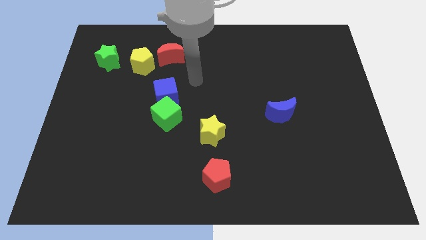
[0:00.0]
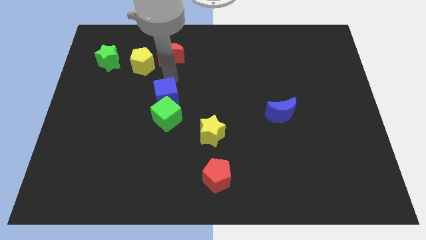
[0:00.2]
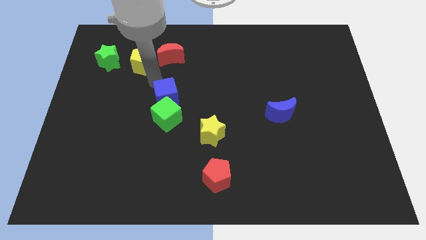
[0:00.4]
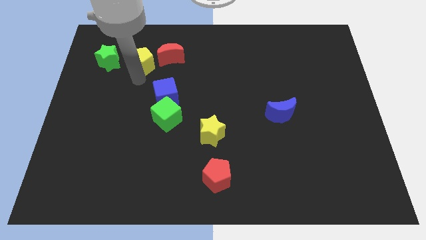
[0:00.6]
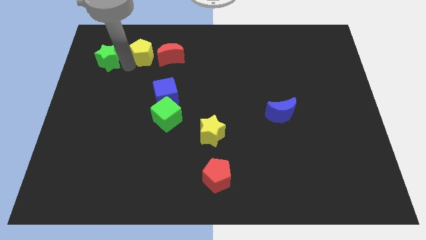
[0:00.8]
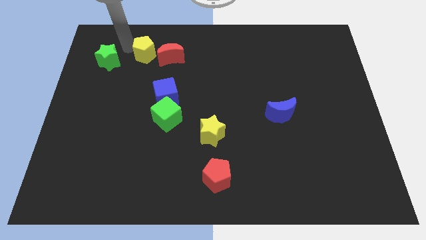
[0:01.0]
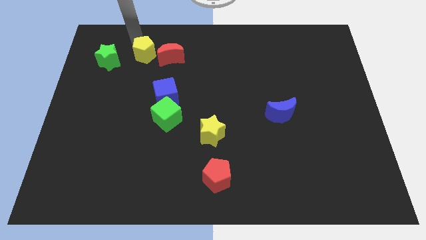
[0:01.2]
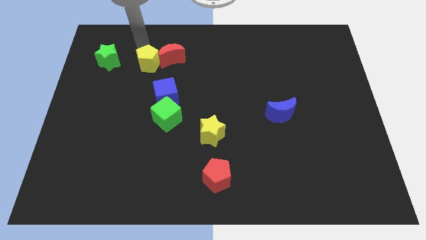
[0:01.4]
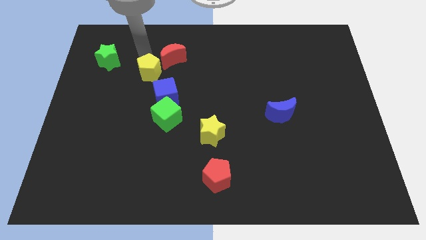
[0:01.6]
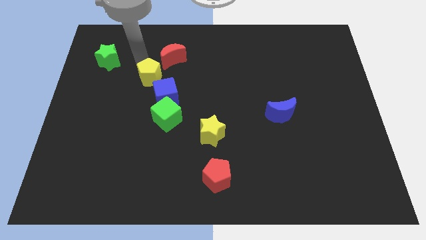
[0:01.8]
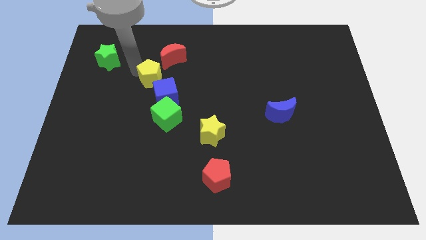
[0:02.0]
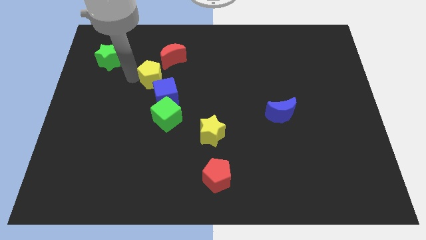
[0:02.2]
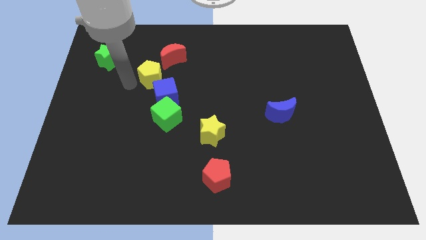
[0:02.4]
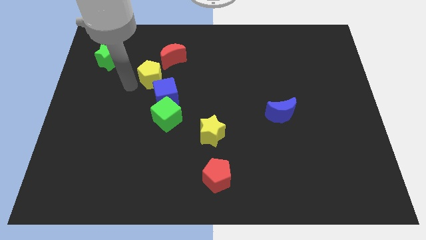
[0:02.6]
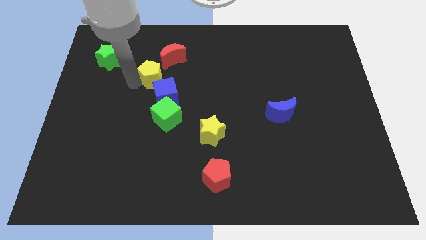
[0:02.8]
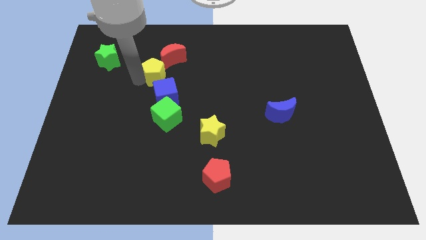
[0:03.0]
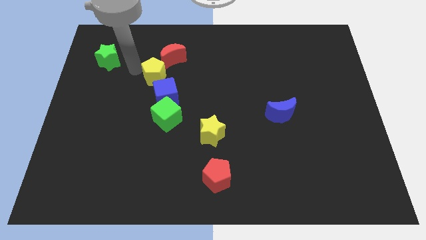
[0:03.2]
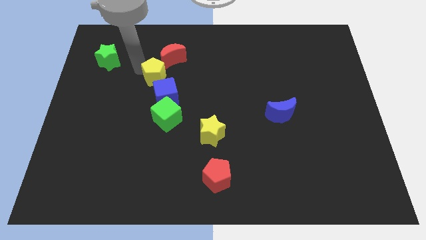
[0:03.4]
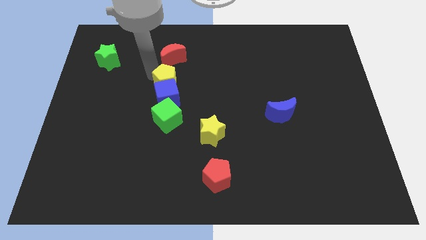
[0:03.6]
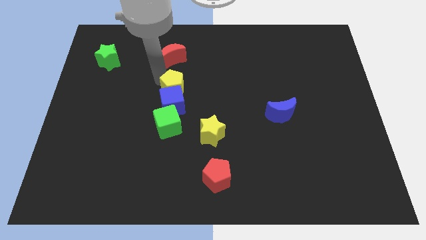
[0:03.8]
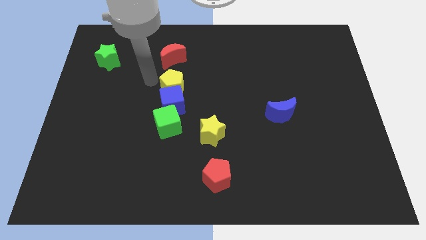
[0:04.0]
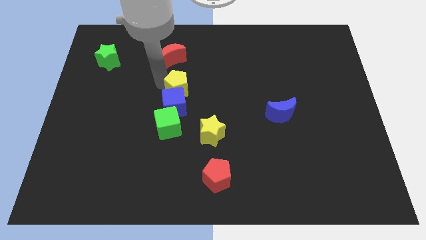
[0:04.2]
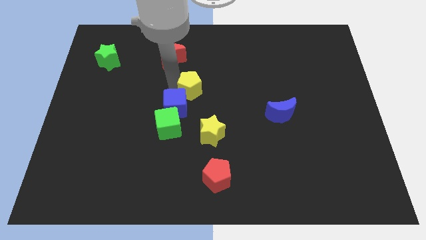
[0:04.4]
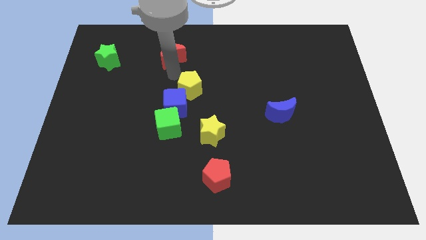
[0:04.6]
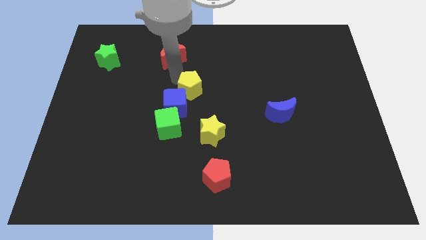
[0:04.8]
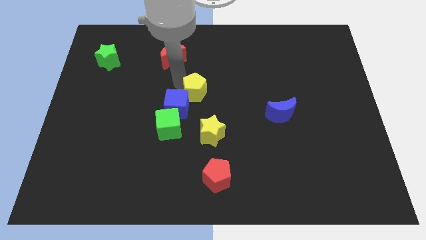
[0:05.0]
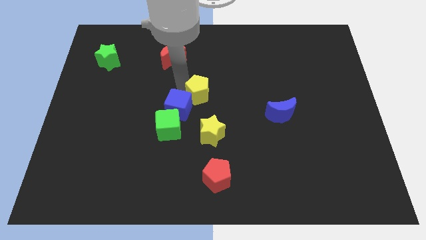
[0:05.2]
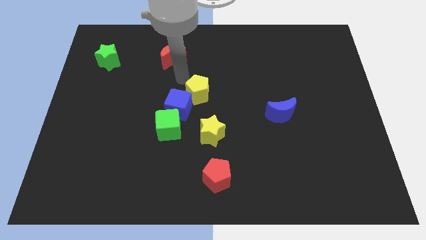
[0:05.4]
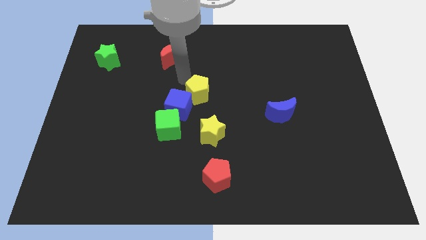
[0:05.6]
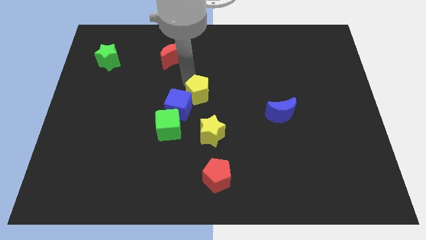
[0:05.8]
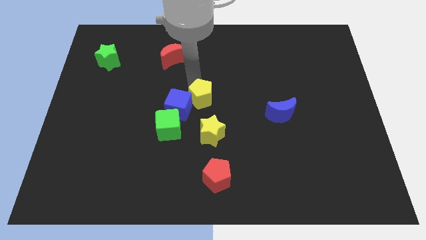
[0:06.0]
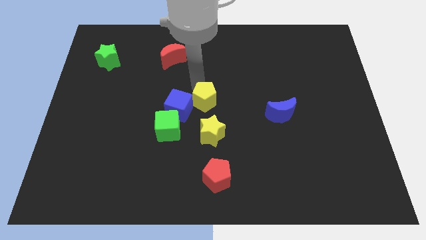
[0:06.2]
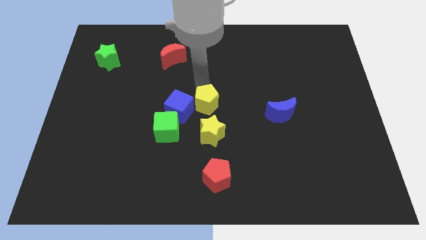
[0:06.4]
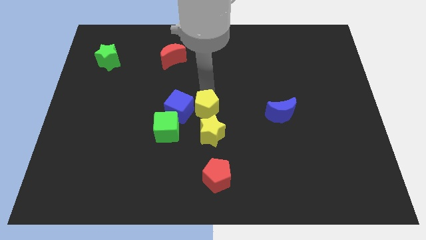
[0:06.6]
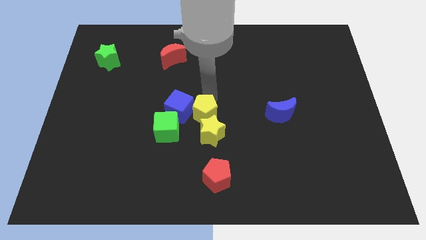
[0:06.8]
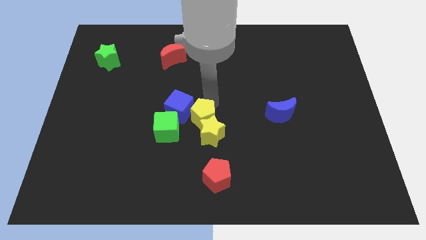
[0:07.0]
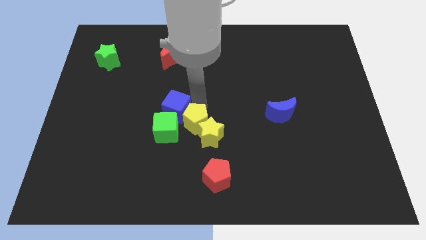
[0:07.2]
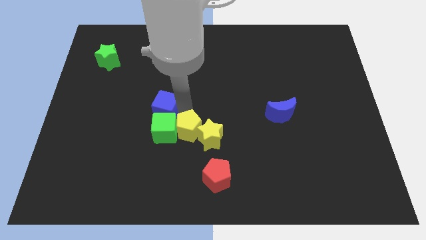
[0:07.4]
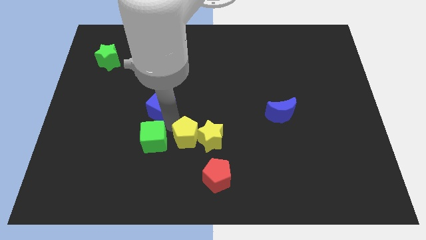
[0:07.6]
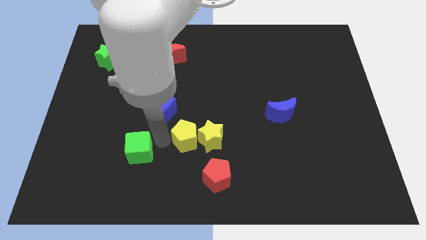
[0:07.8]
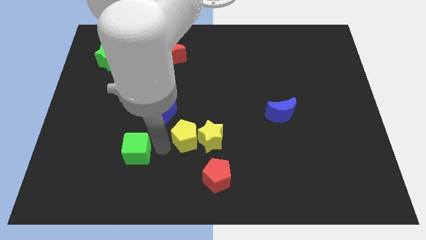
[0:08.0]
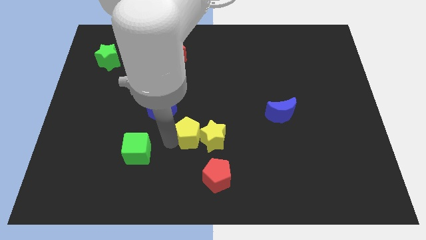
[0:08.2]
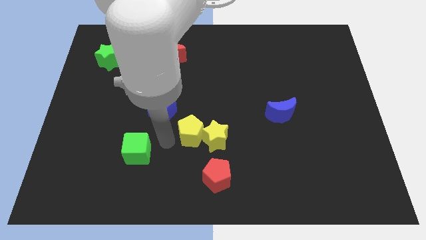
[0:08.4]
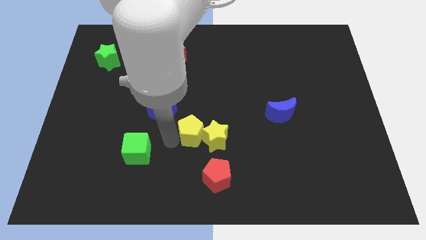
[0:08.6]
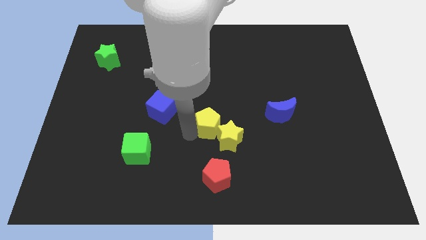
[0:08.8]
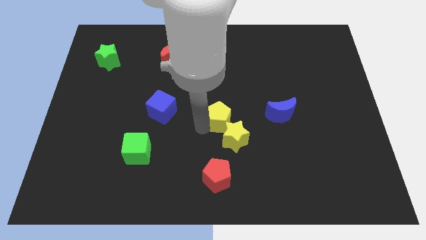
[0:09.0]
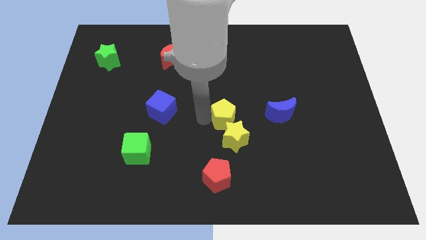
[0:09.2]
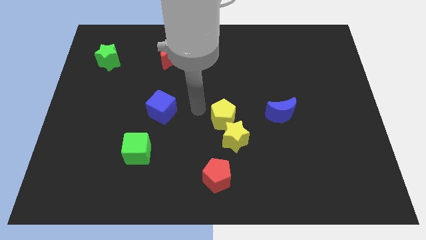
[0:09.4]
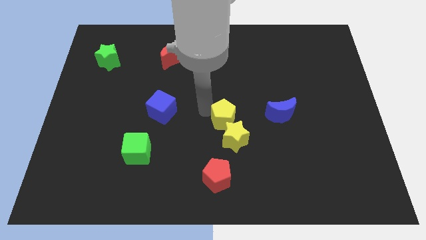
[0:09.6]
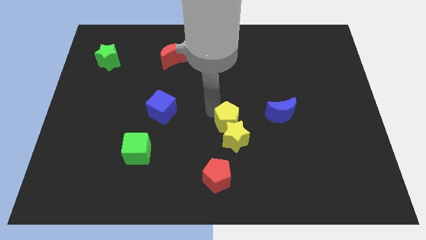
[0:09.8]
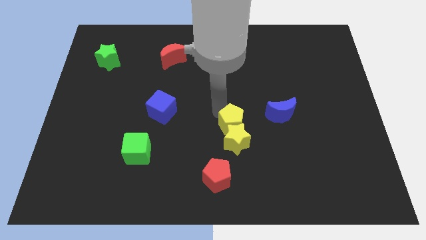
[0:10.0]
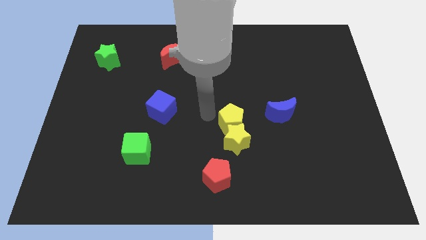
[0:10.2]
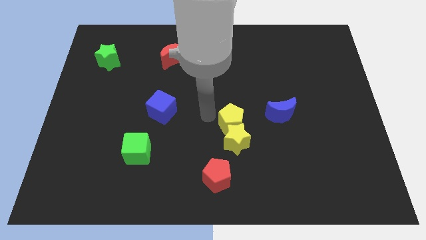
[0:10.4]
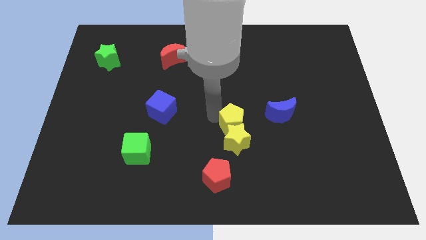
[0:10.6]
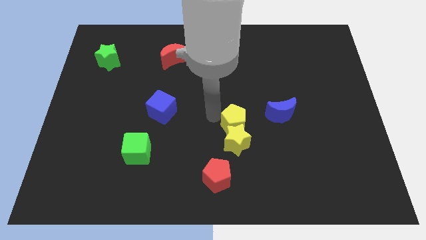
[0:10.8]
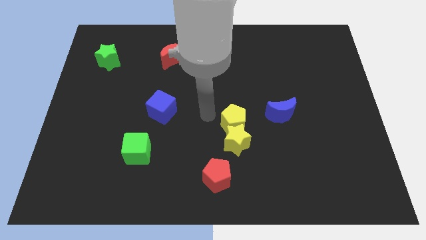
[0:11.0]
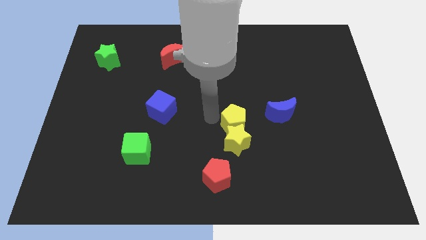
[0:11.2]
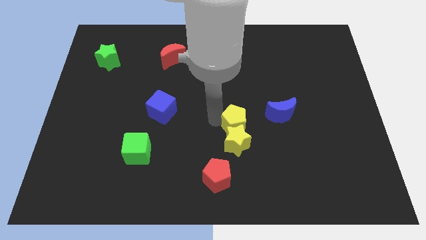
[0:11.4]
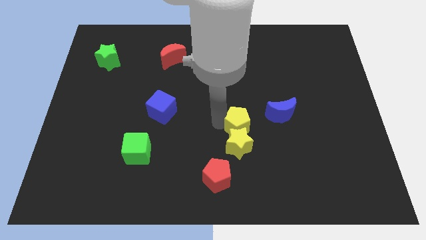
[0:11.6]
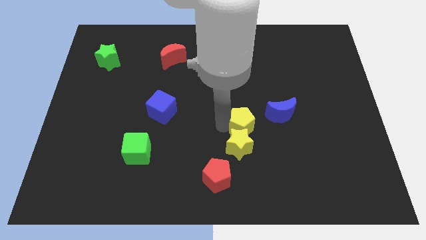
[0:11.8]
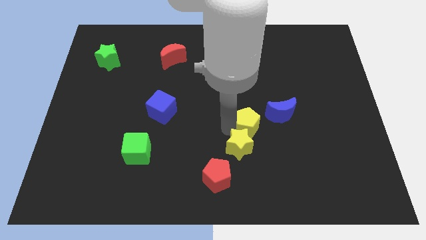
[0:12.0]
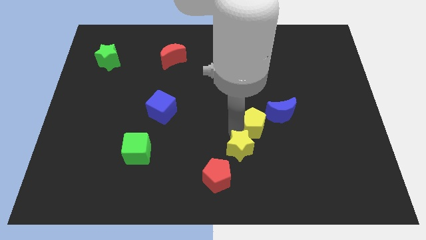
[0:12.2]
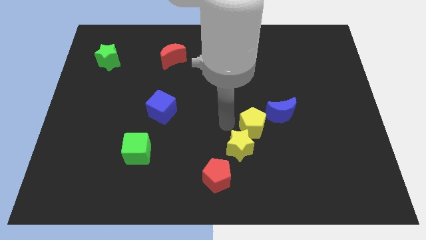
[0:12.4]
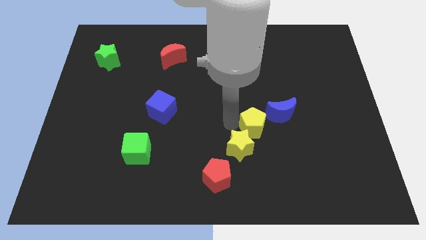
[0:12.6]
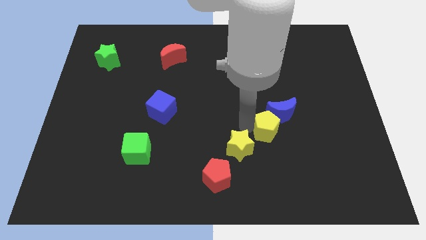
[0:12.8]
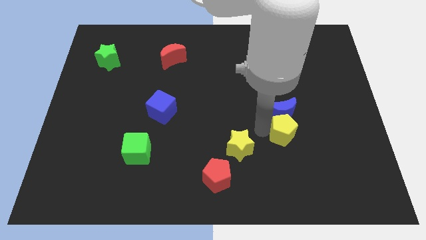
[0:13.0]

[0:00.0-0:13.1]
slide the yellow pentagon to the bottom right of the blue moon
